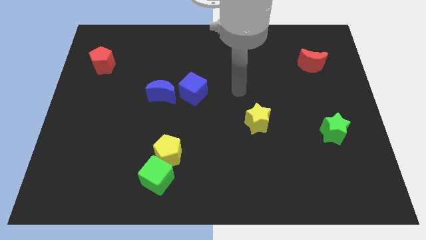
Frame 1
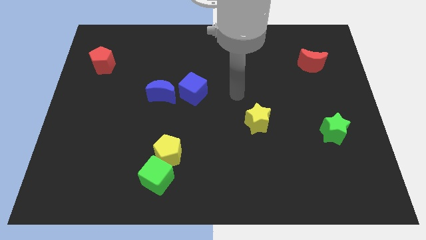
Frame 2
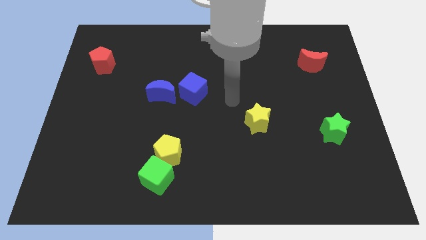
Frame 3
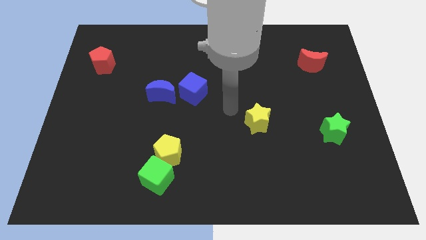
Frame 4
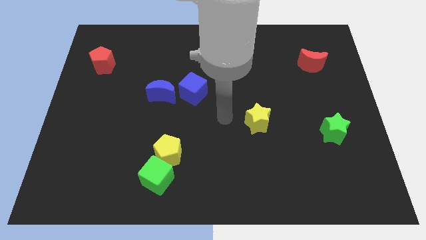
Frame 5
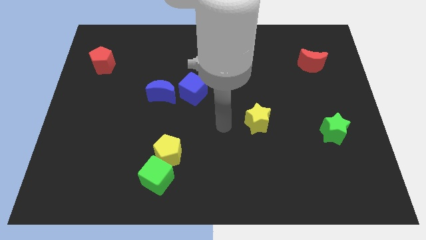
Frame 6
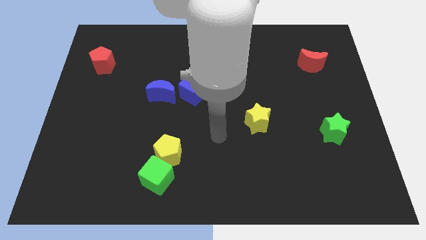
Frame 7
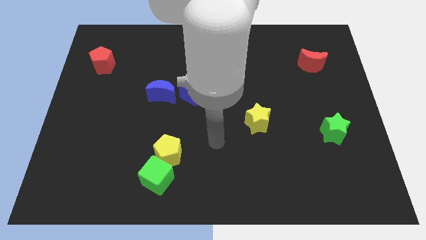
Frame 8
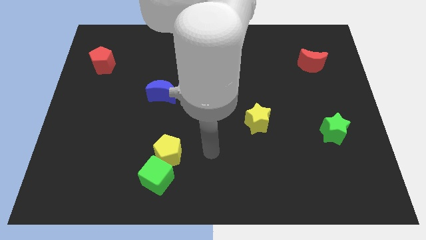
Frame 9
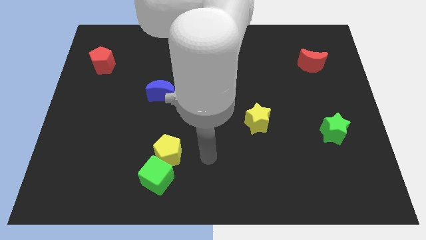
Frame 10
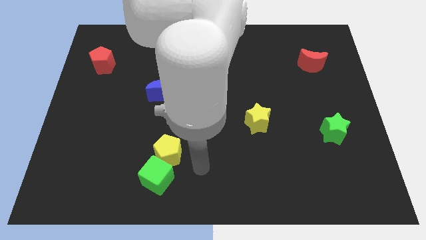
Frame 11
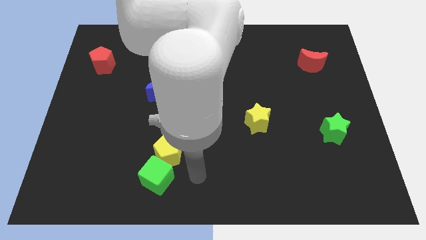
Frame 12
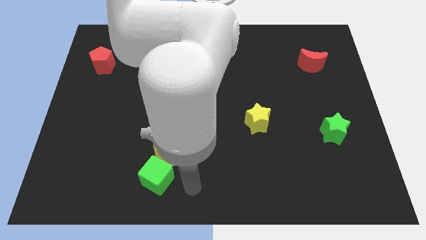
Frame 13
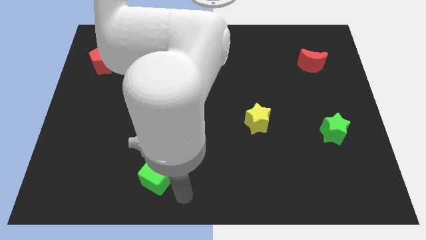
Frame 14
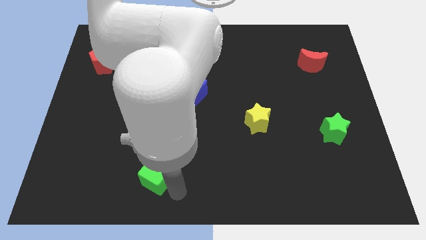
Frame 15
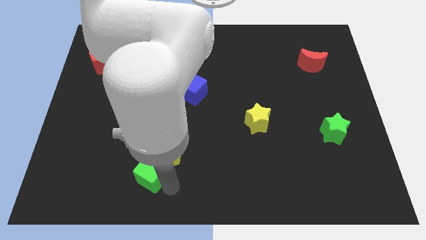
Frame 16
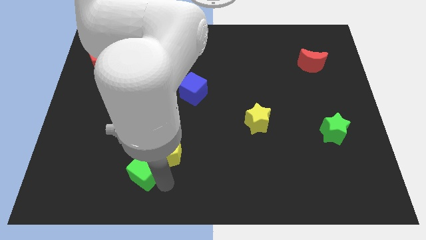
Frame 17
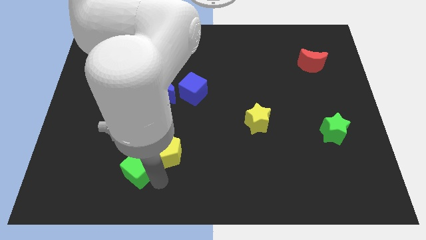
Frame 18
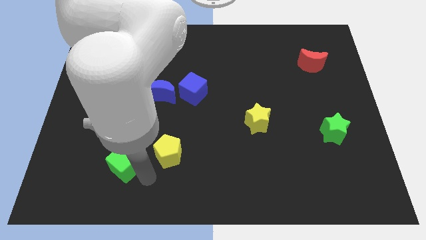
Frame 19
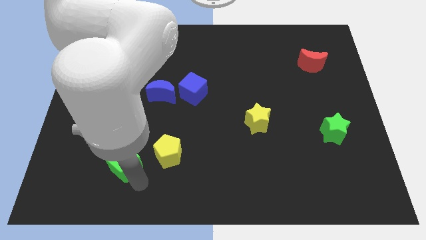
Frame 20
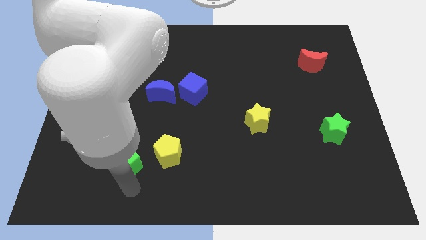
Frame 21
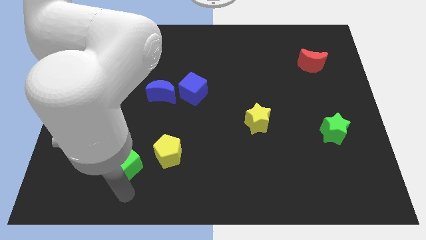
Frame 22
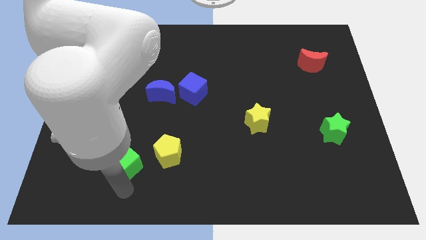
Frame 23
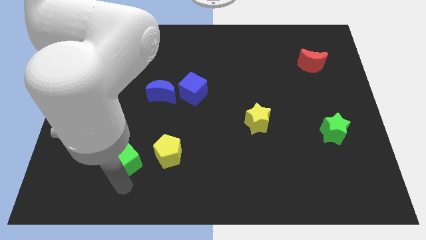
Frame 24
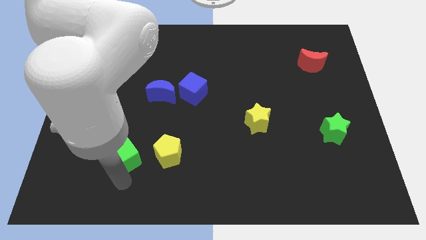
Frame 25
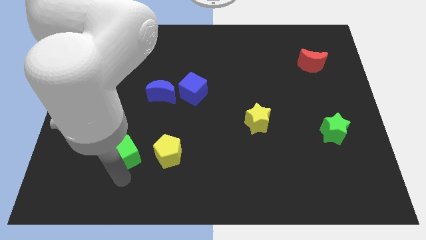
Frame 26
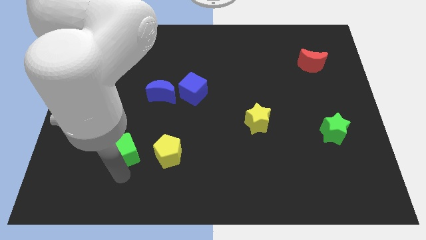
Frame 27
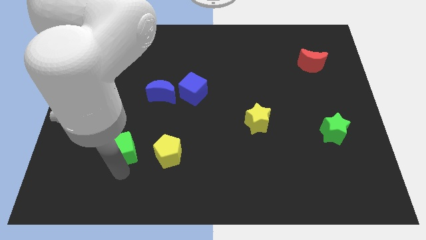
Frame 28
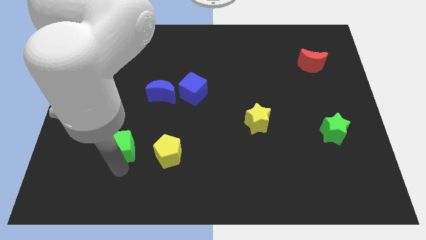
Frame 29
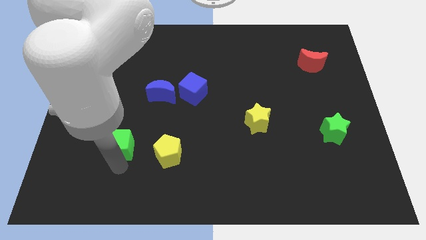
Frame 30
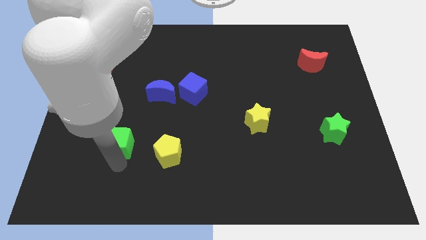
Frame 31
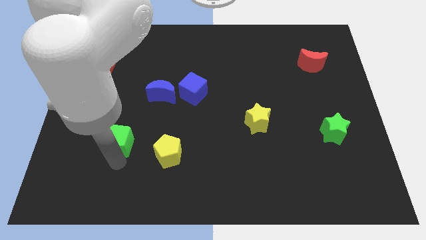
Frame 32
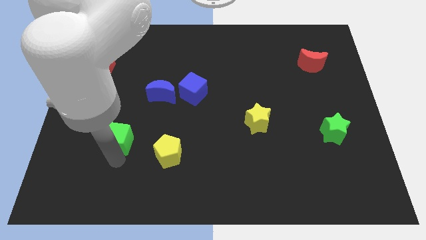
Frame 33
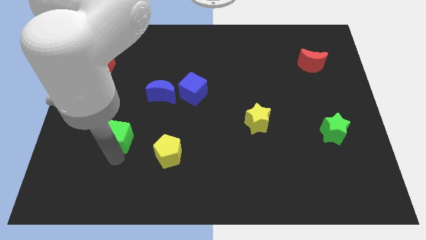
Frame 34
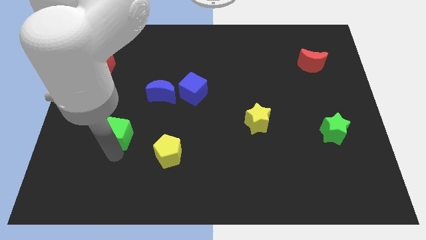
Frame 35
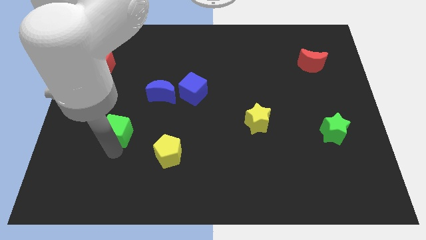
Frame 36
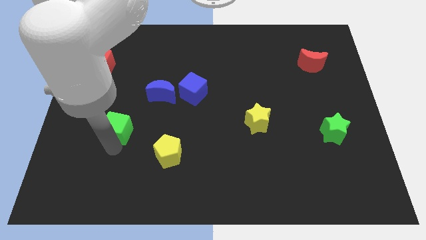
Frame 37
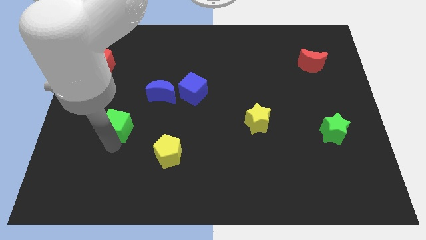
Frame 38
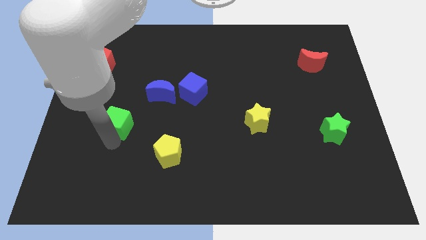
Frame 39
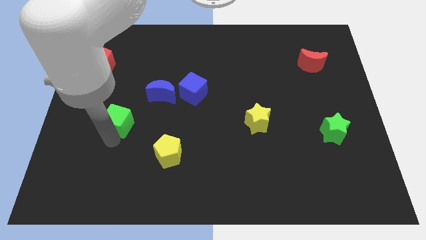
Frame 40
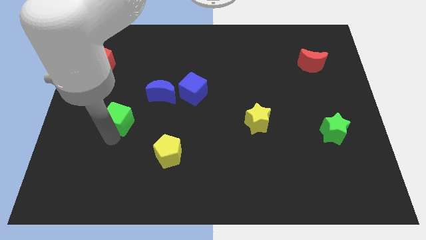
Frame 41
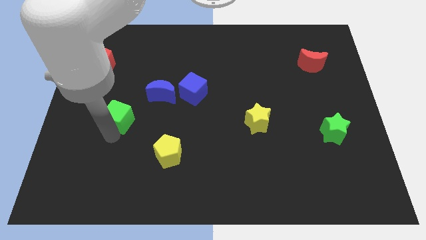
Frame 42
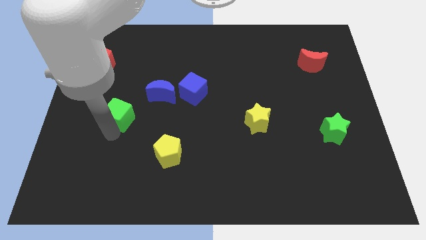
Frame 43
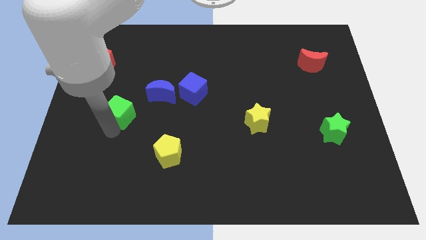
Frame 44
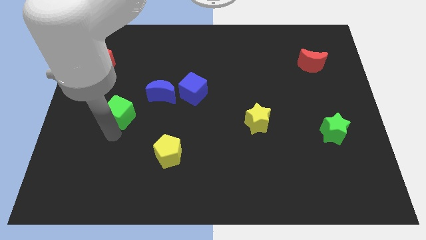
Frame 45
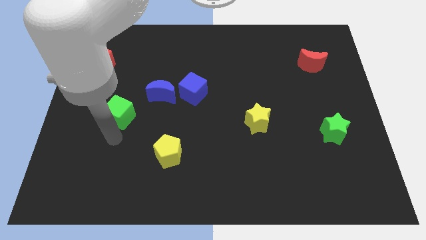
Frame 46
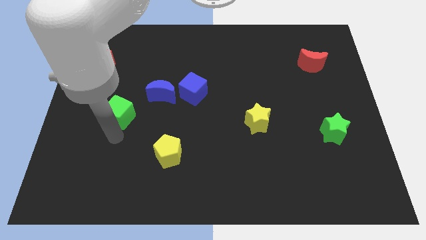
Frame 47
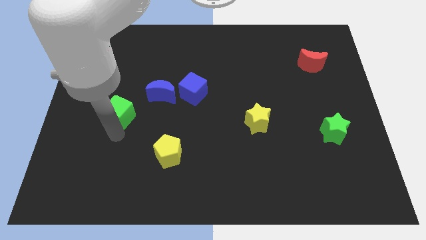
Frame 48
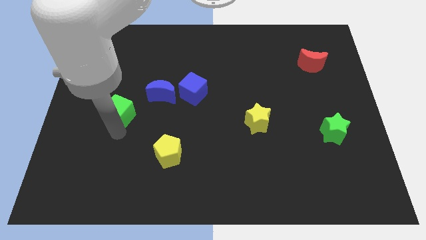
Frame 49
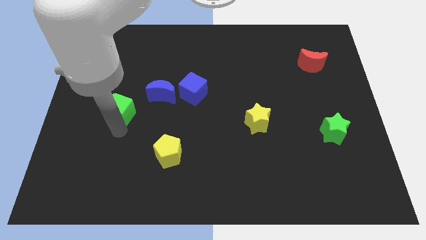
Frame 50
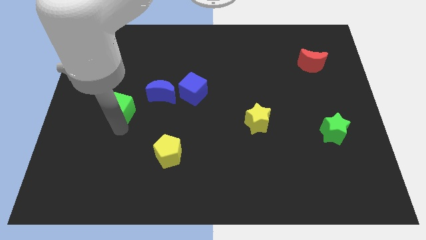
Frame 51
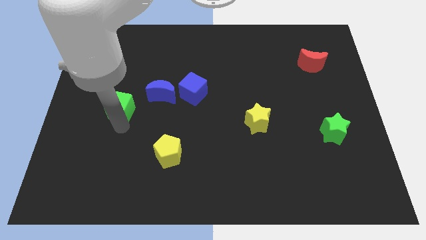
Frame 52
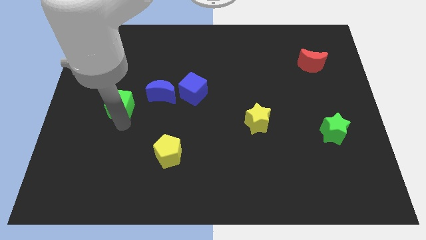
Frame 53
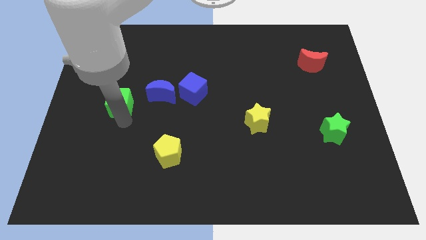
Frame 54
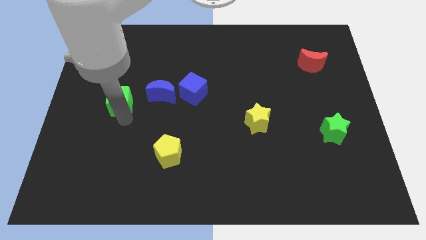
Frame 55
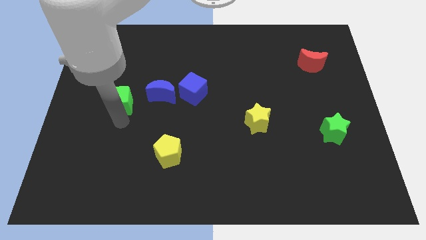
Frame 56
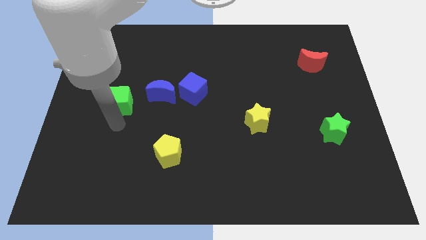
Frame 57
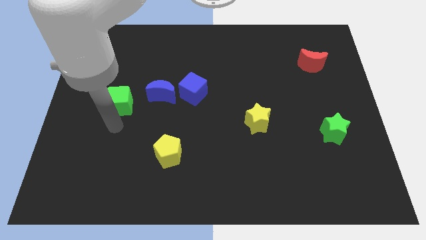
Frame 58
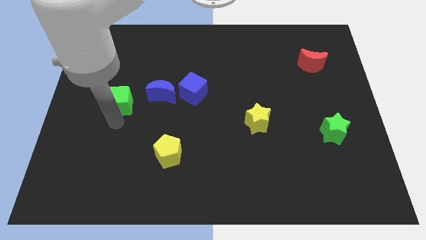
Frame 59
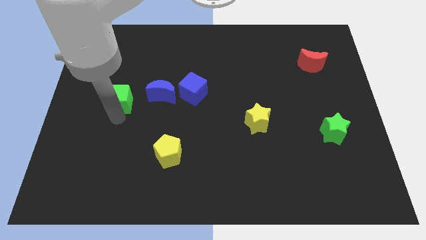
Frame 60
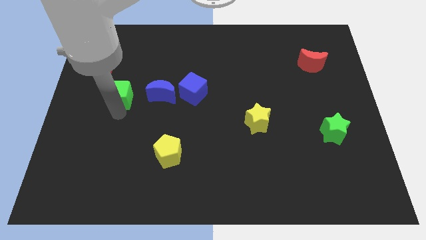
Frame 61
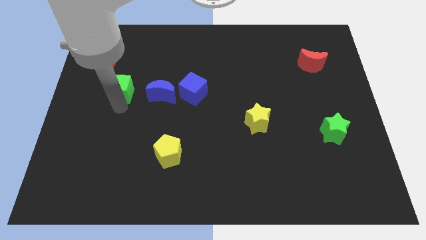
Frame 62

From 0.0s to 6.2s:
put the green cube to the bottom right side of the red pentagon

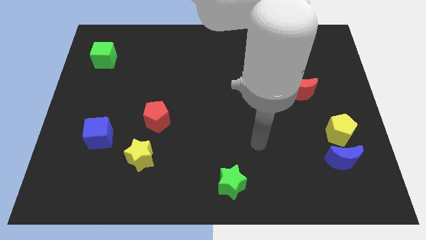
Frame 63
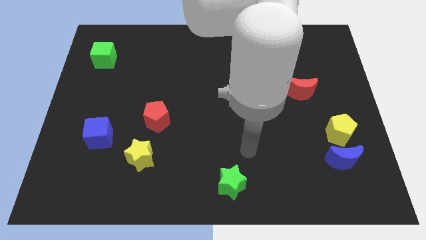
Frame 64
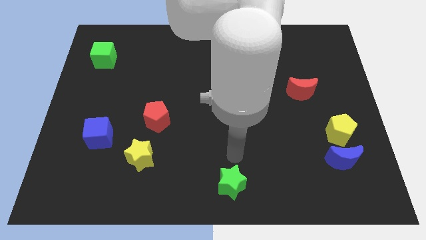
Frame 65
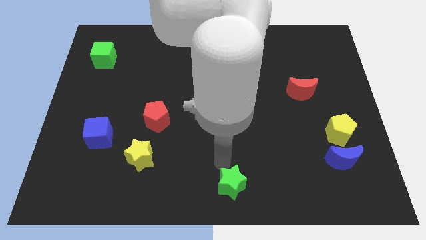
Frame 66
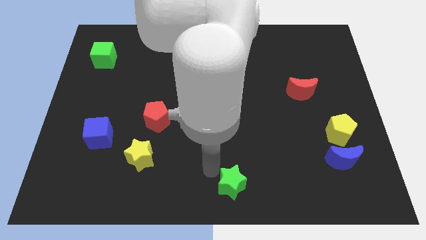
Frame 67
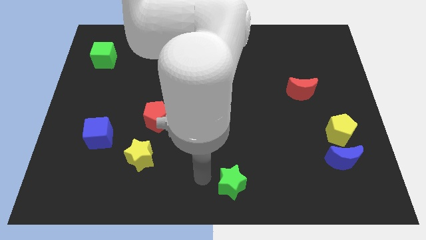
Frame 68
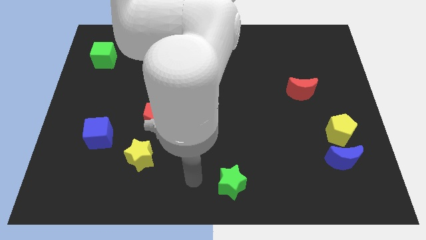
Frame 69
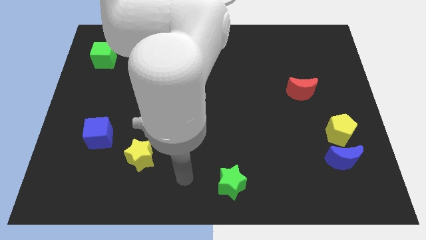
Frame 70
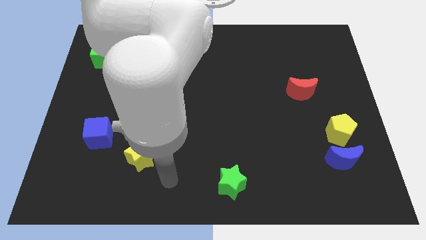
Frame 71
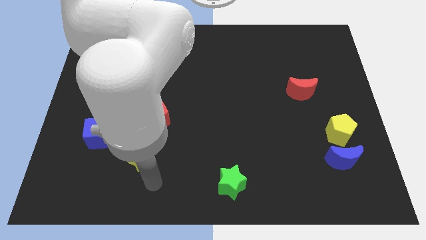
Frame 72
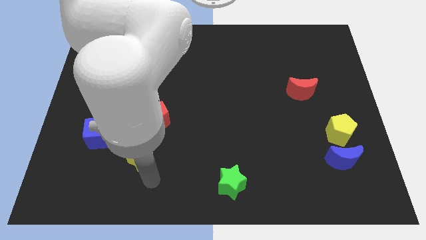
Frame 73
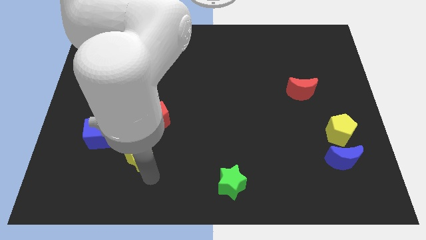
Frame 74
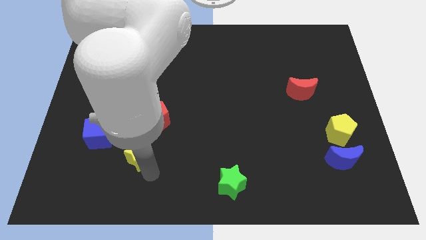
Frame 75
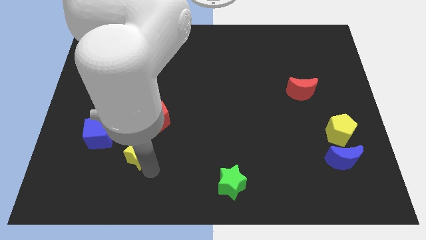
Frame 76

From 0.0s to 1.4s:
push the yellow star to the bottom left of the red pentagon
